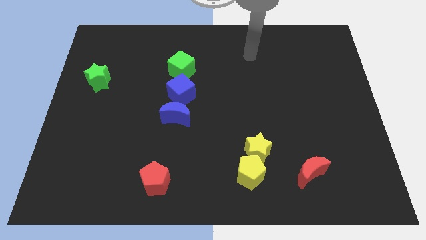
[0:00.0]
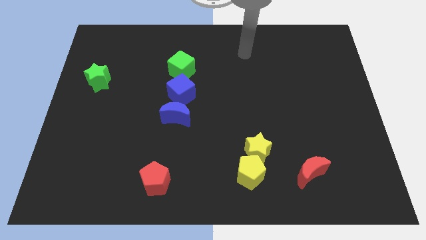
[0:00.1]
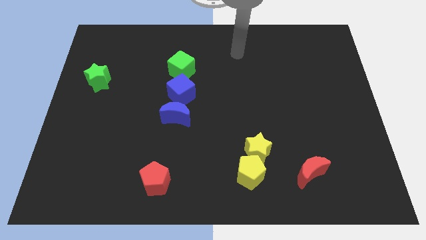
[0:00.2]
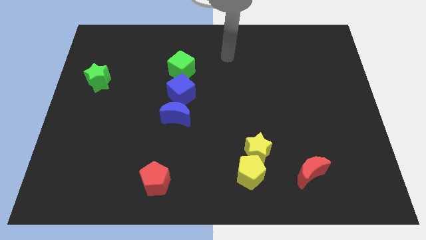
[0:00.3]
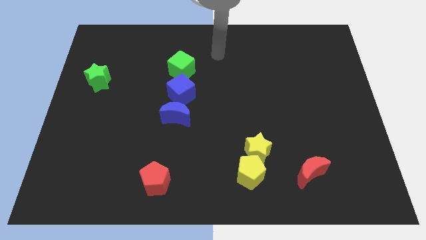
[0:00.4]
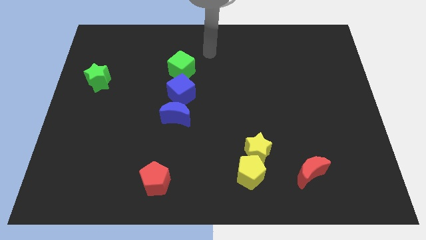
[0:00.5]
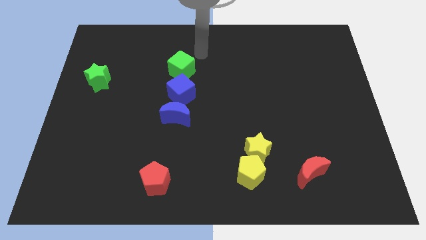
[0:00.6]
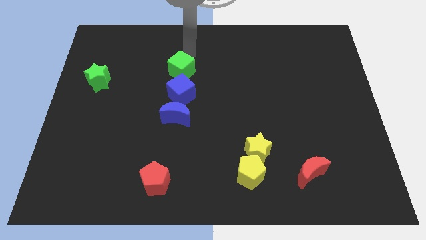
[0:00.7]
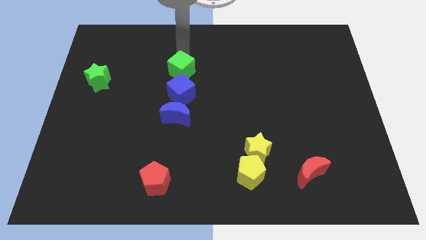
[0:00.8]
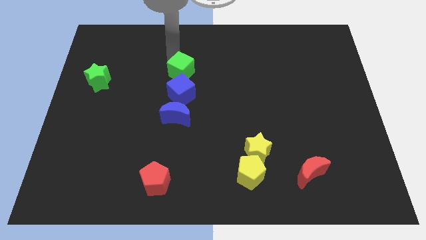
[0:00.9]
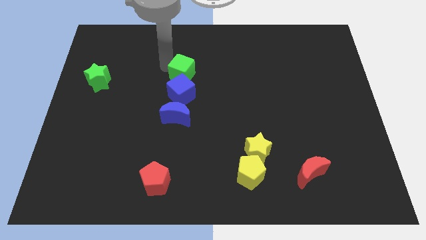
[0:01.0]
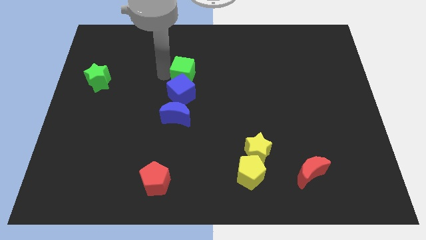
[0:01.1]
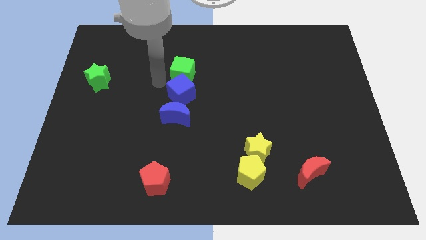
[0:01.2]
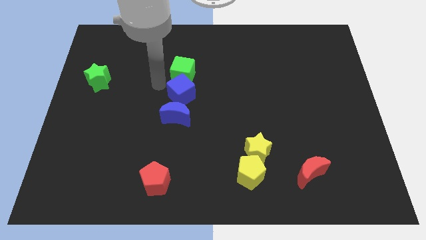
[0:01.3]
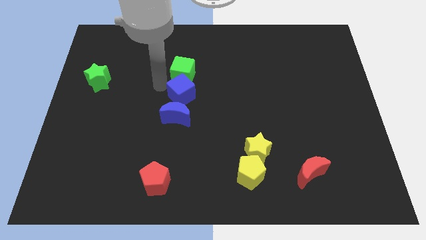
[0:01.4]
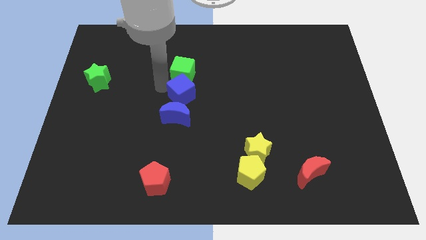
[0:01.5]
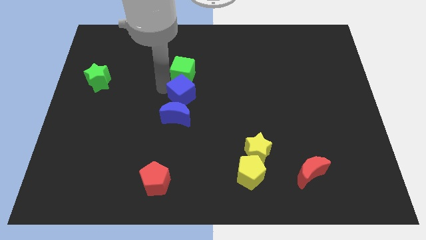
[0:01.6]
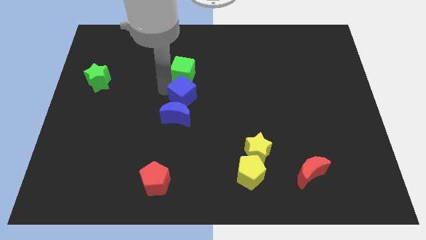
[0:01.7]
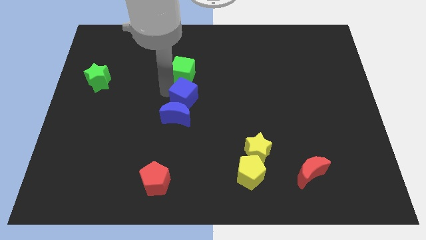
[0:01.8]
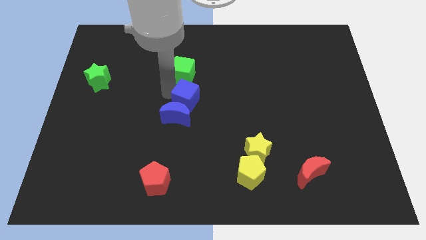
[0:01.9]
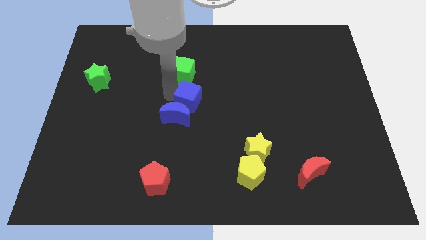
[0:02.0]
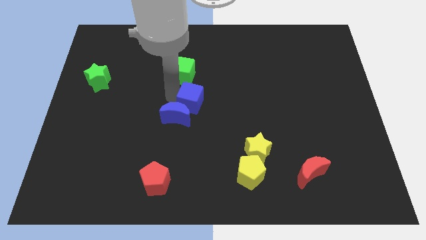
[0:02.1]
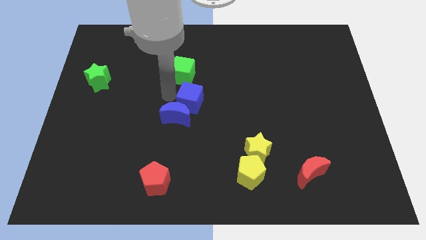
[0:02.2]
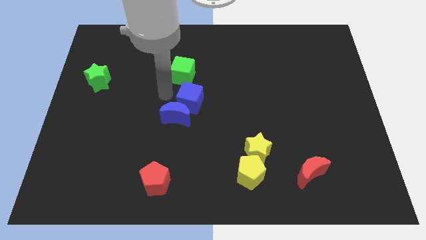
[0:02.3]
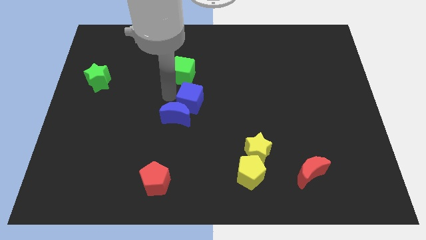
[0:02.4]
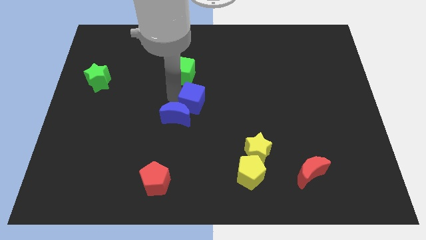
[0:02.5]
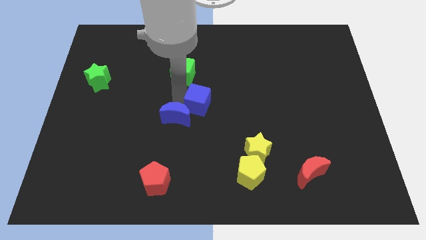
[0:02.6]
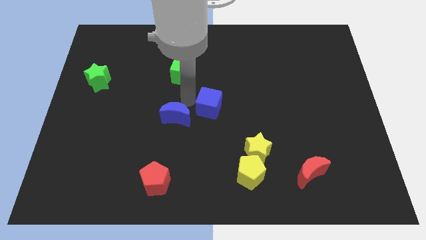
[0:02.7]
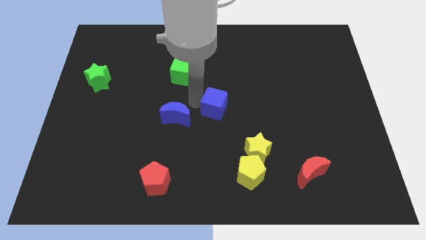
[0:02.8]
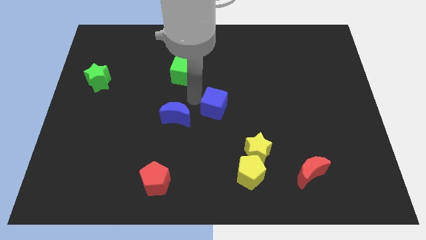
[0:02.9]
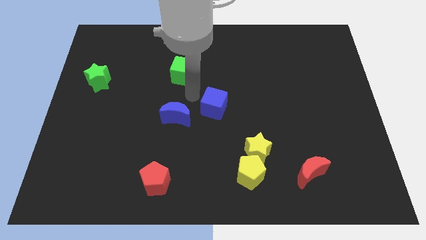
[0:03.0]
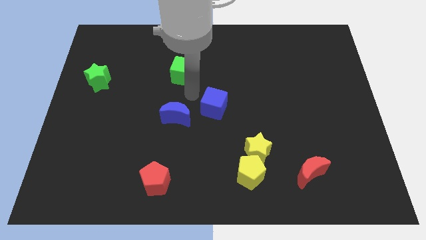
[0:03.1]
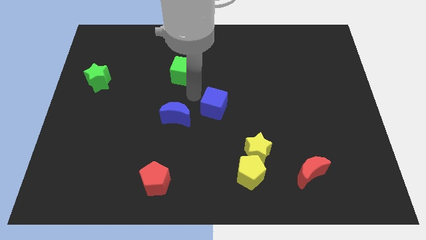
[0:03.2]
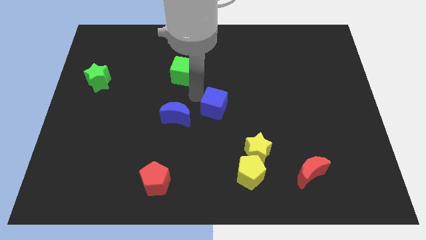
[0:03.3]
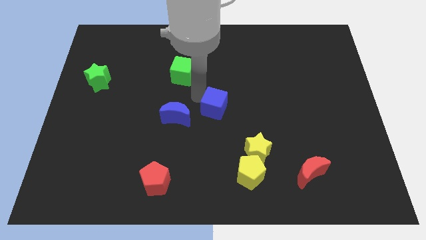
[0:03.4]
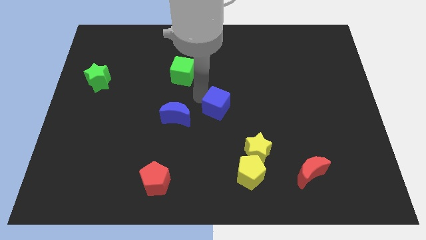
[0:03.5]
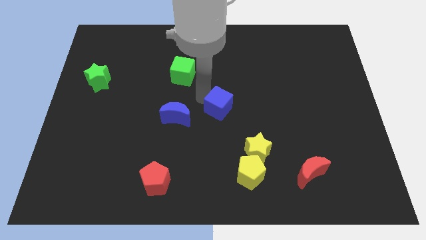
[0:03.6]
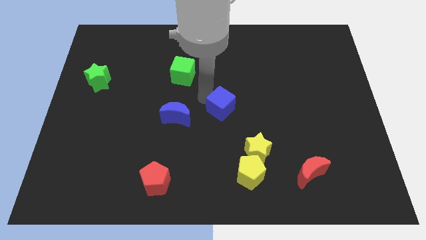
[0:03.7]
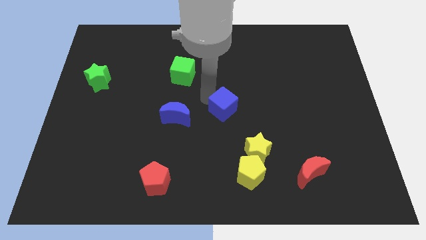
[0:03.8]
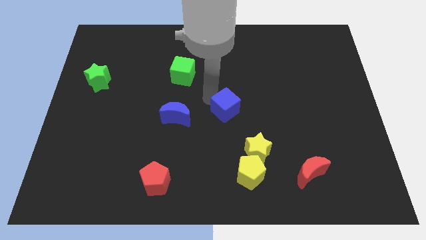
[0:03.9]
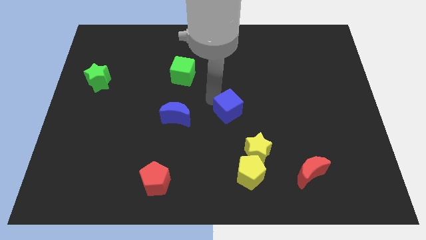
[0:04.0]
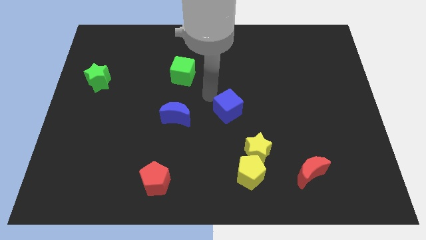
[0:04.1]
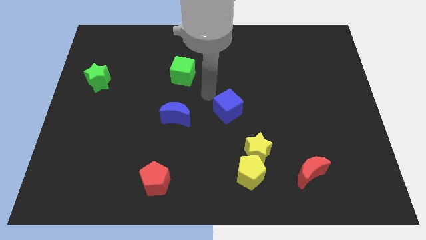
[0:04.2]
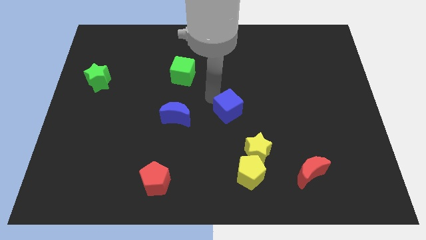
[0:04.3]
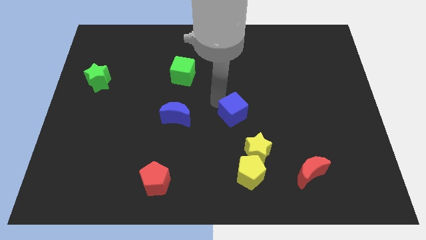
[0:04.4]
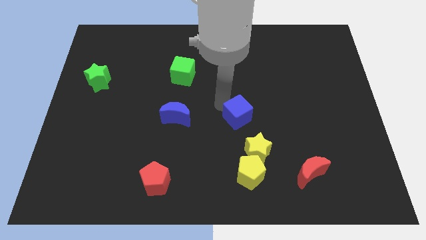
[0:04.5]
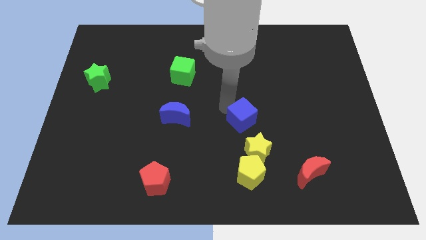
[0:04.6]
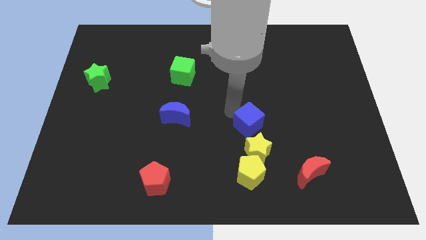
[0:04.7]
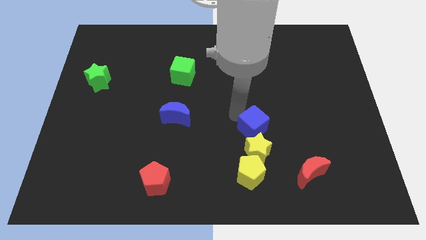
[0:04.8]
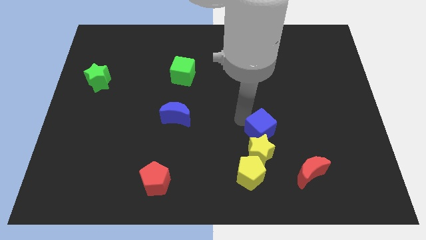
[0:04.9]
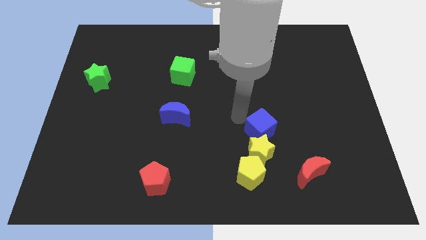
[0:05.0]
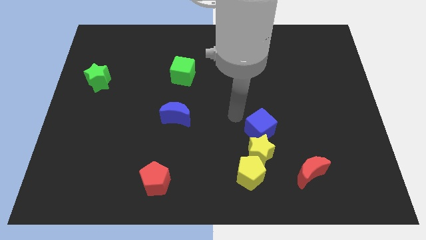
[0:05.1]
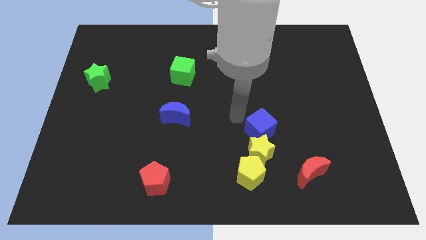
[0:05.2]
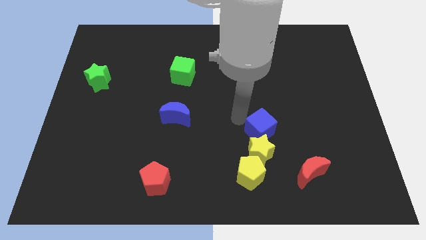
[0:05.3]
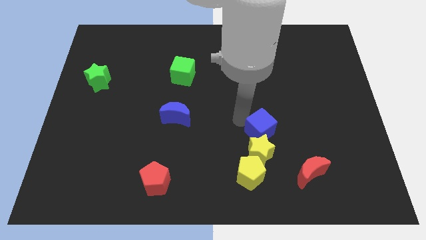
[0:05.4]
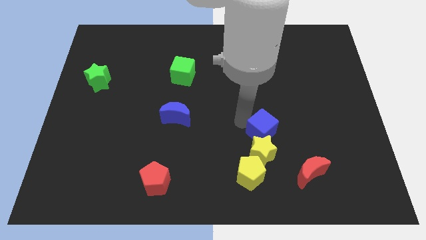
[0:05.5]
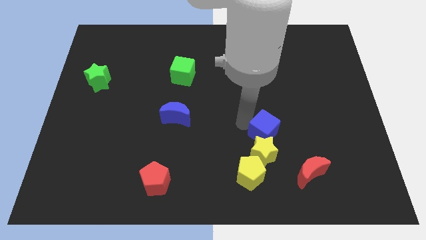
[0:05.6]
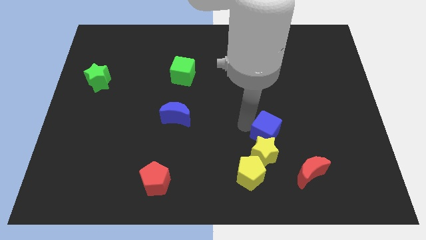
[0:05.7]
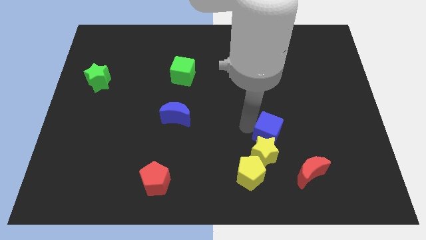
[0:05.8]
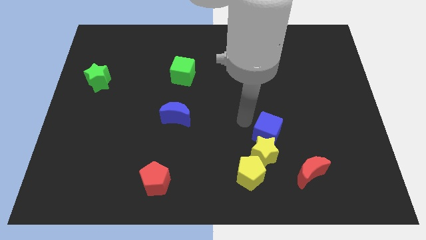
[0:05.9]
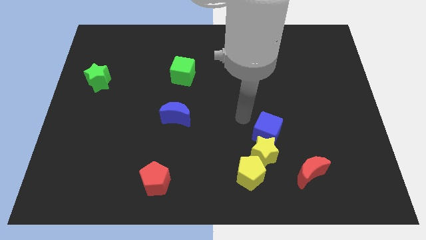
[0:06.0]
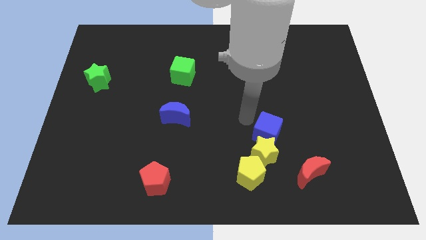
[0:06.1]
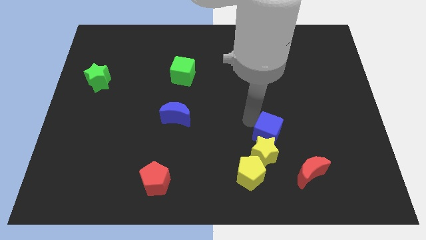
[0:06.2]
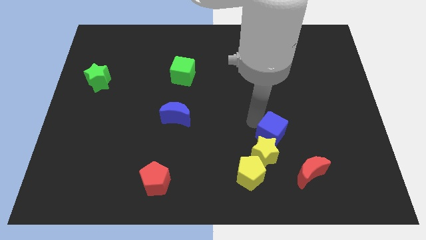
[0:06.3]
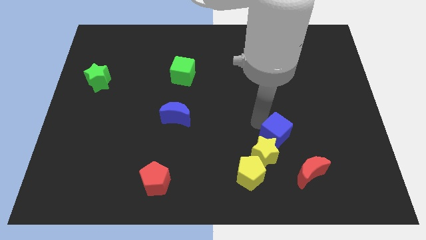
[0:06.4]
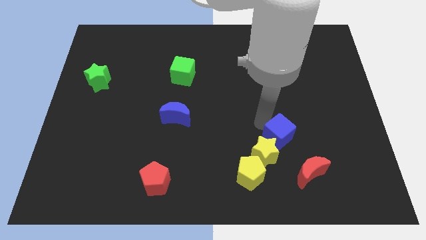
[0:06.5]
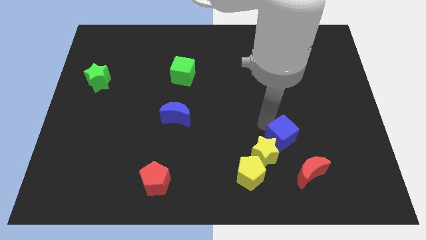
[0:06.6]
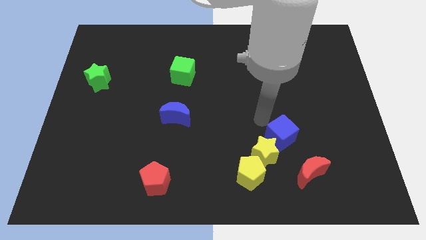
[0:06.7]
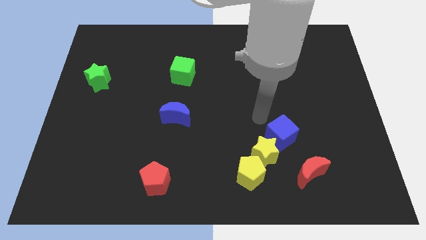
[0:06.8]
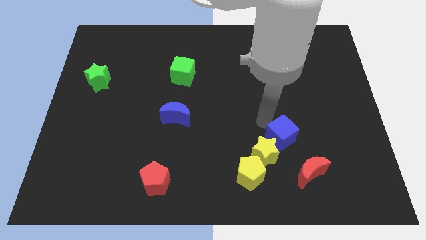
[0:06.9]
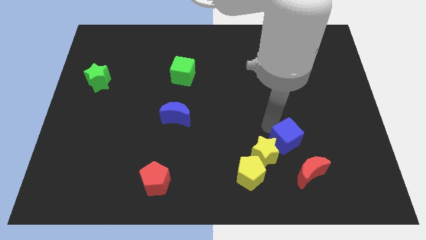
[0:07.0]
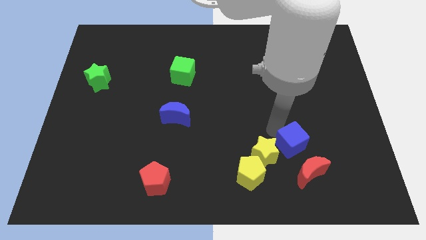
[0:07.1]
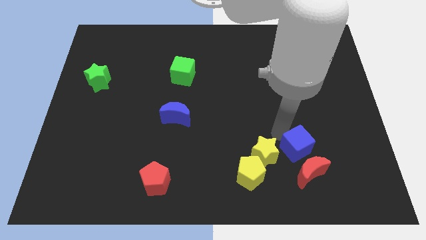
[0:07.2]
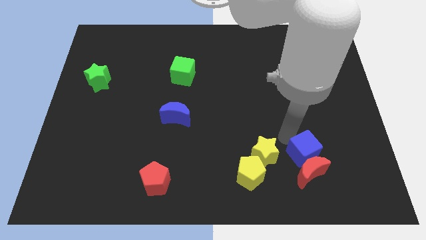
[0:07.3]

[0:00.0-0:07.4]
put the blue cube to the red moon
